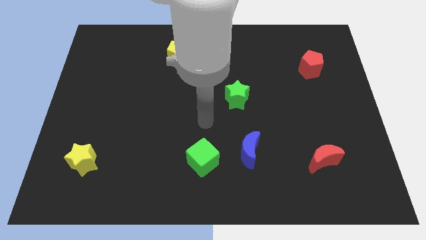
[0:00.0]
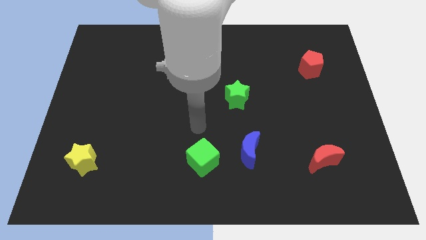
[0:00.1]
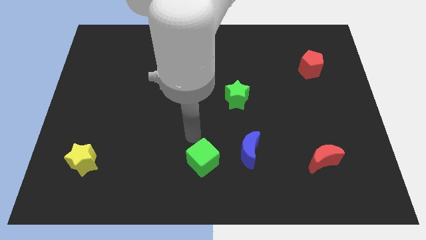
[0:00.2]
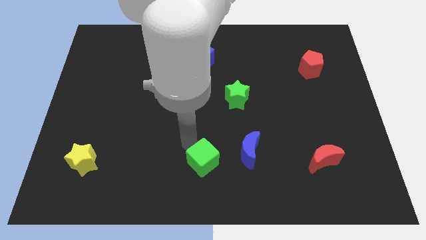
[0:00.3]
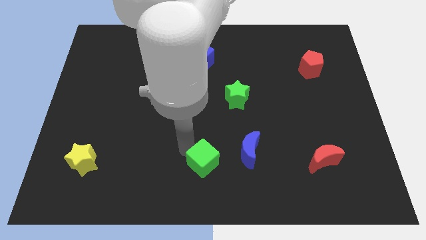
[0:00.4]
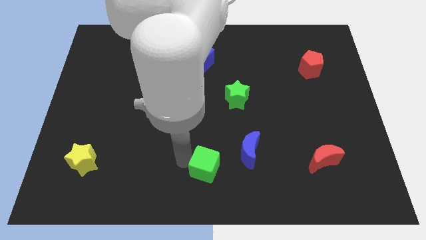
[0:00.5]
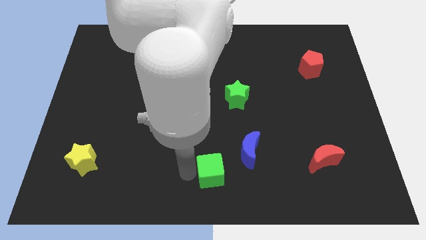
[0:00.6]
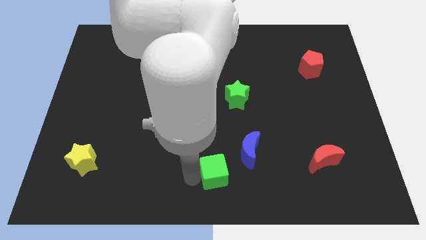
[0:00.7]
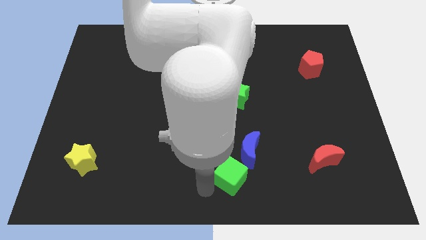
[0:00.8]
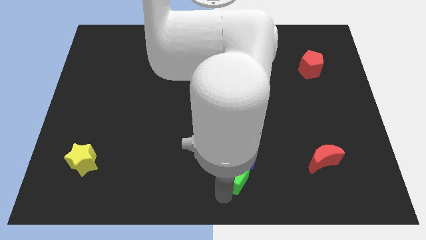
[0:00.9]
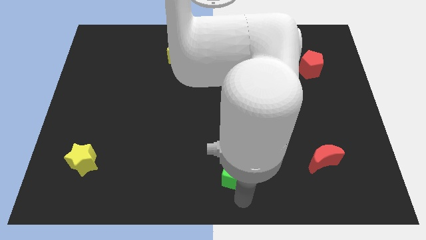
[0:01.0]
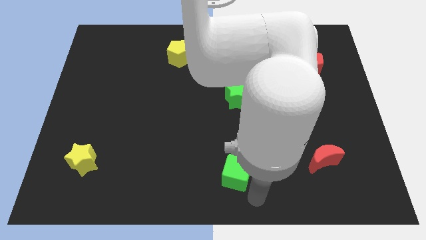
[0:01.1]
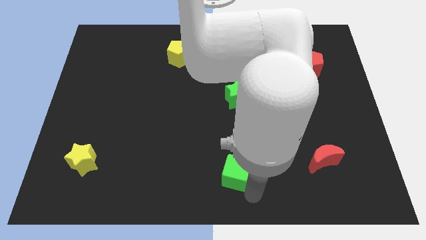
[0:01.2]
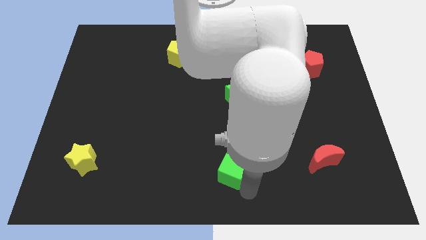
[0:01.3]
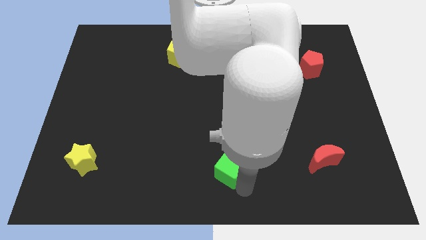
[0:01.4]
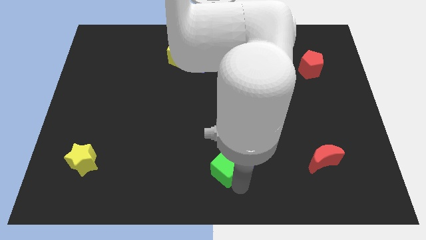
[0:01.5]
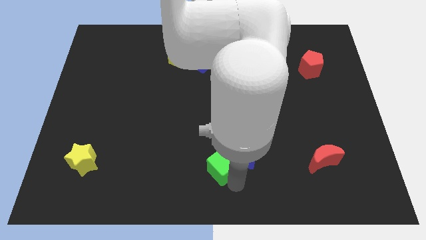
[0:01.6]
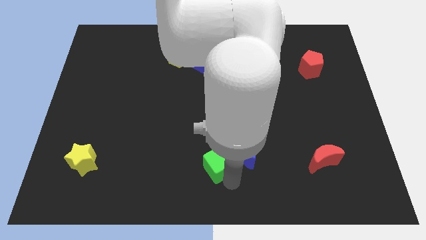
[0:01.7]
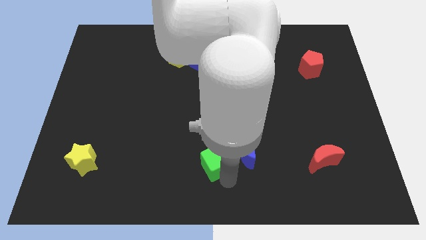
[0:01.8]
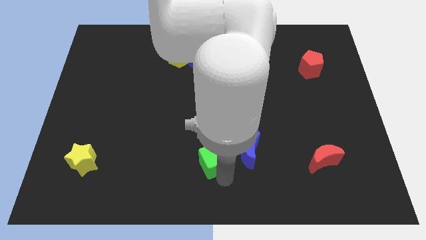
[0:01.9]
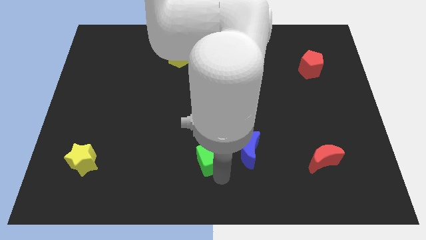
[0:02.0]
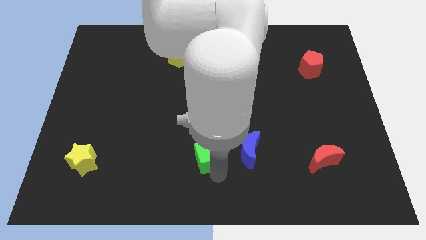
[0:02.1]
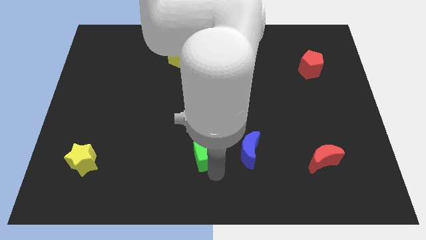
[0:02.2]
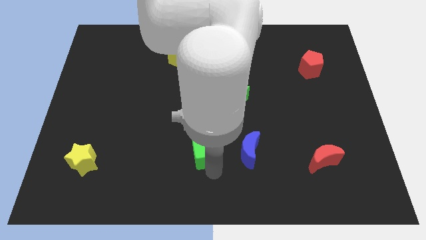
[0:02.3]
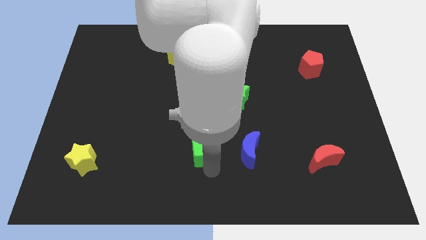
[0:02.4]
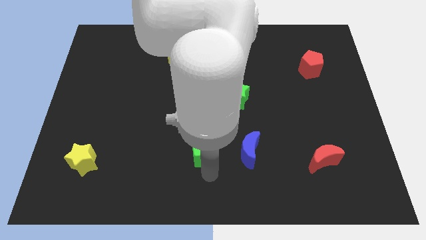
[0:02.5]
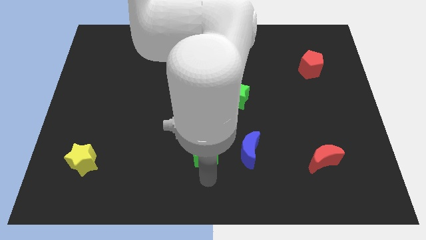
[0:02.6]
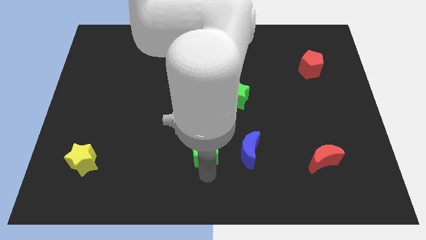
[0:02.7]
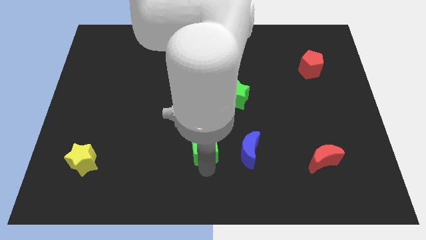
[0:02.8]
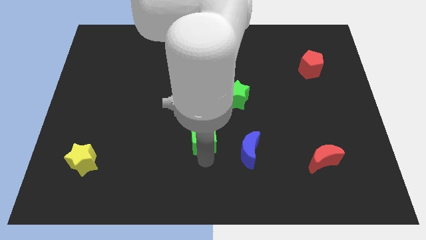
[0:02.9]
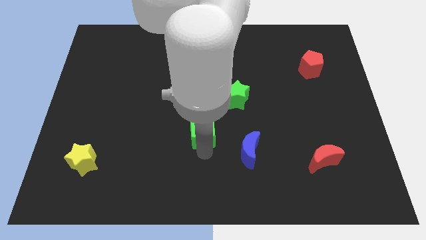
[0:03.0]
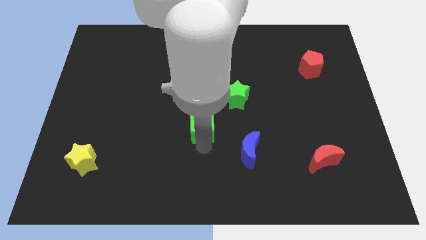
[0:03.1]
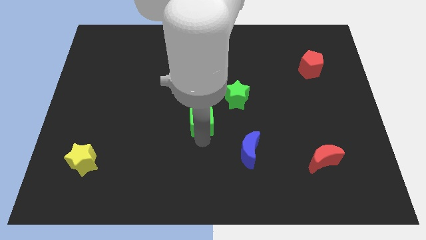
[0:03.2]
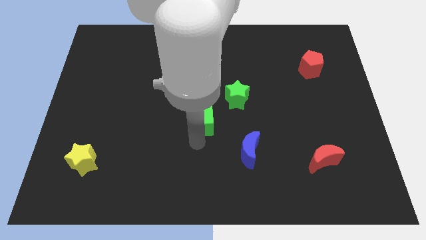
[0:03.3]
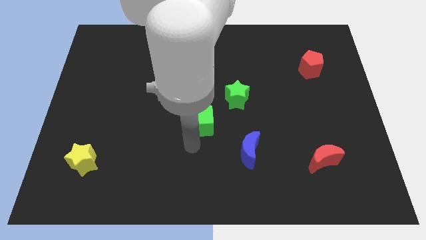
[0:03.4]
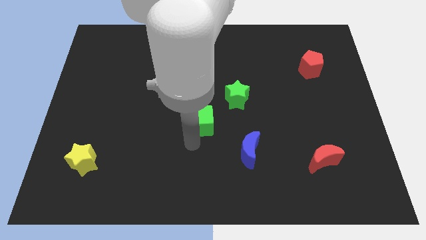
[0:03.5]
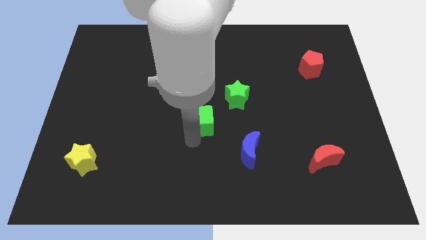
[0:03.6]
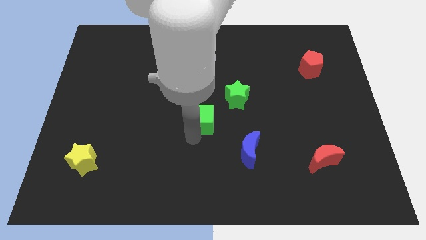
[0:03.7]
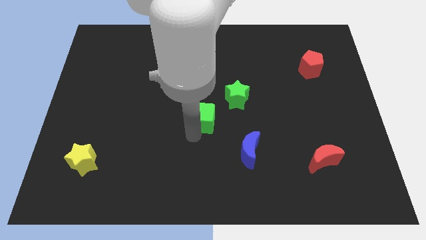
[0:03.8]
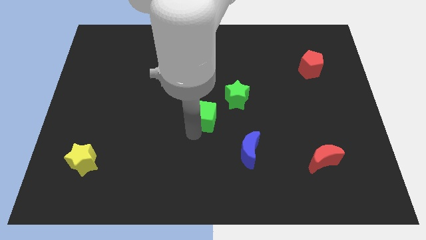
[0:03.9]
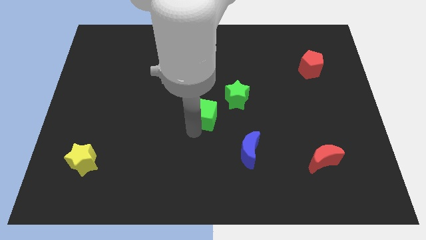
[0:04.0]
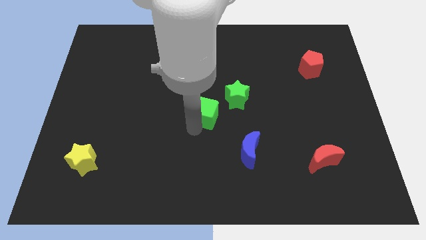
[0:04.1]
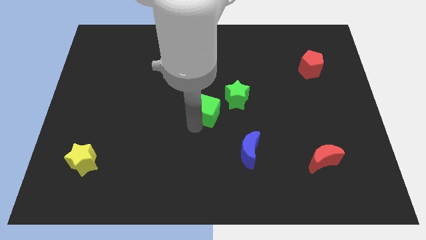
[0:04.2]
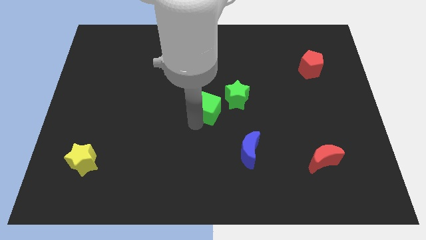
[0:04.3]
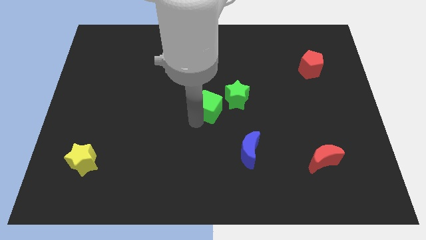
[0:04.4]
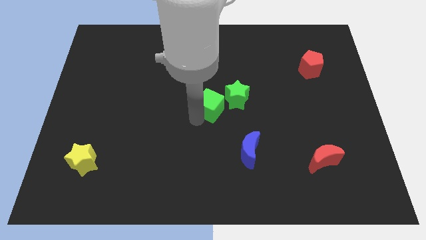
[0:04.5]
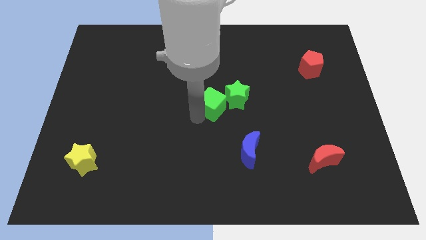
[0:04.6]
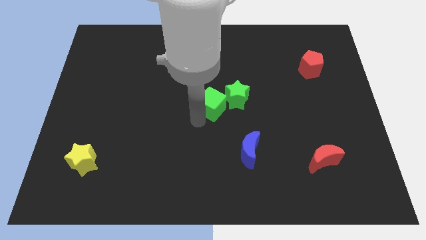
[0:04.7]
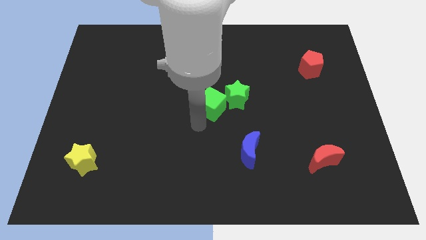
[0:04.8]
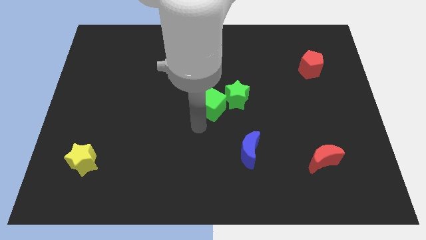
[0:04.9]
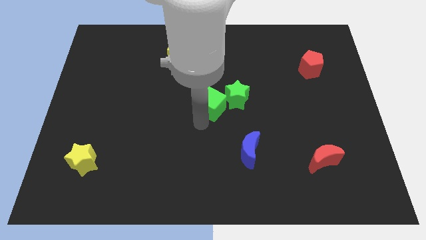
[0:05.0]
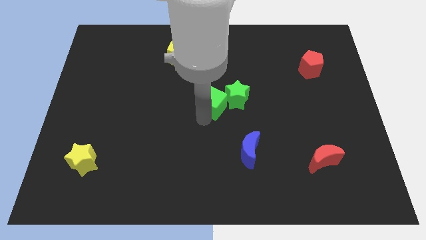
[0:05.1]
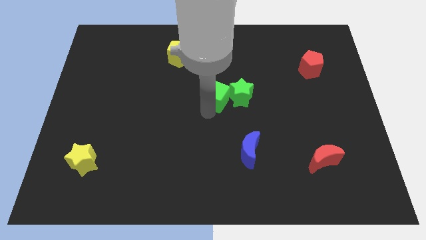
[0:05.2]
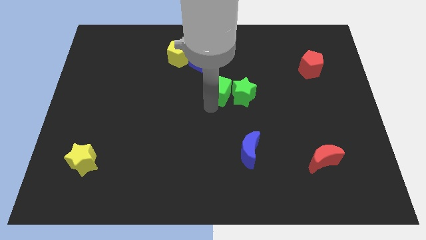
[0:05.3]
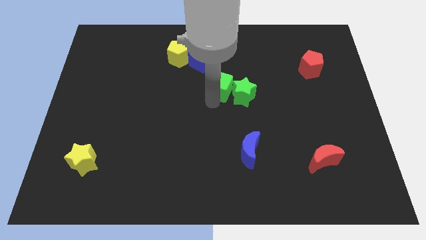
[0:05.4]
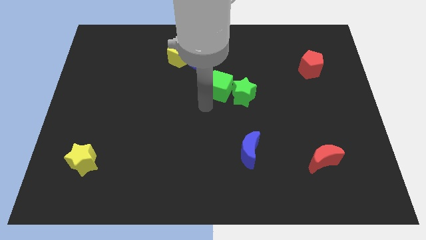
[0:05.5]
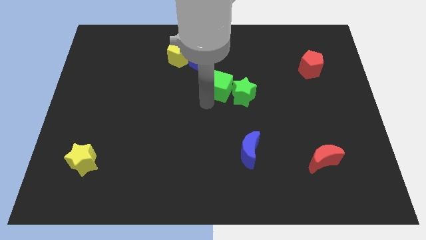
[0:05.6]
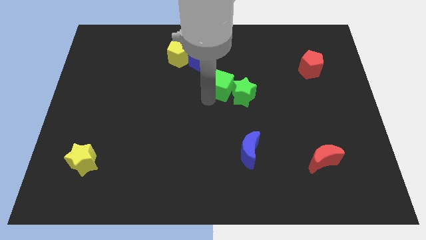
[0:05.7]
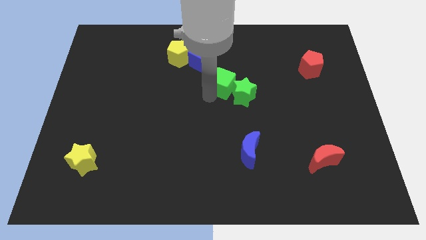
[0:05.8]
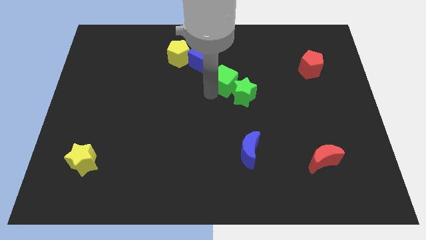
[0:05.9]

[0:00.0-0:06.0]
push the green cube to the top of the green star

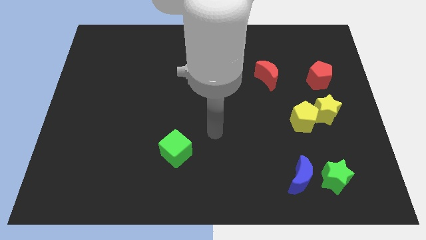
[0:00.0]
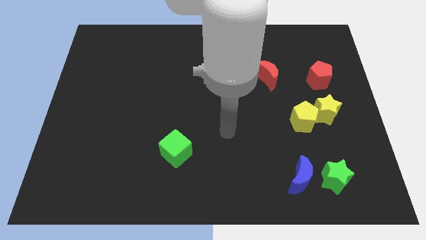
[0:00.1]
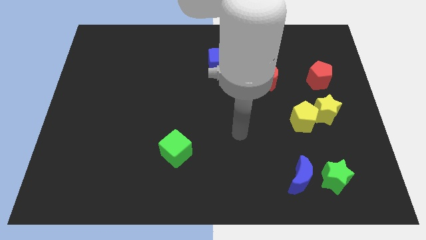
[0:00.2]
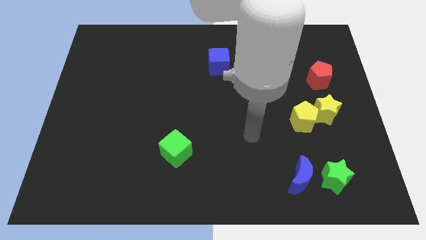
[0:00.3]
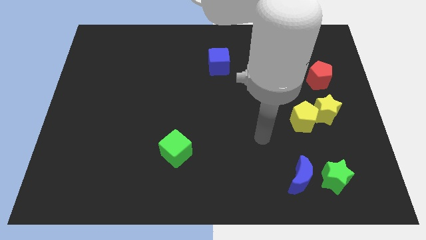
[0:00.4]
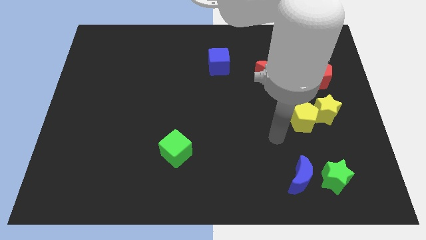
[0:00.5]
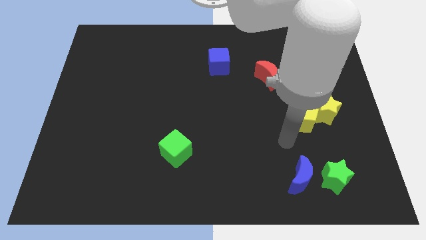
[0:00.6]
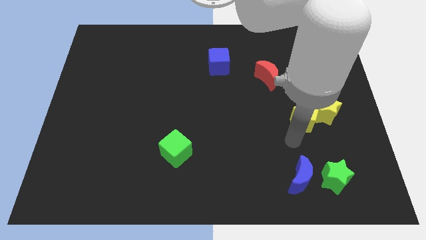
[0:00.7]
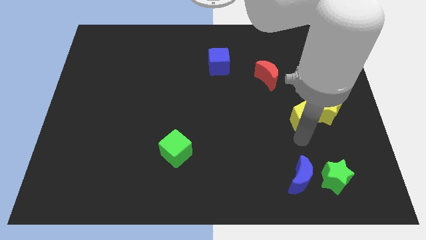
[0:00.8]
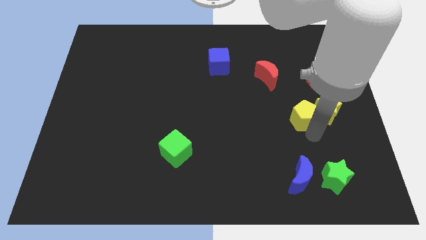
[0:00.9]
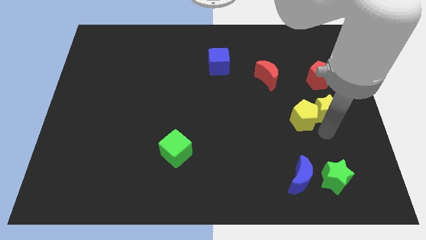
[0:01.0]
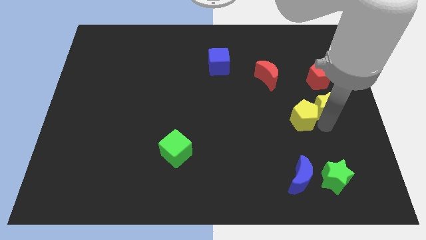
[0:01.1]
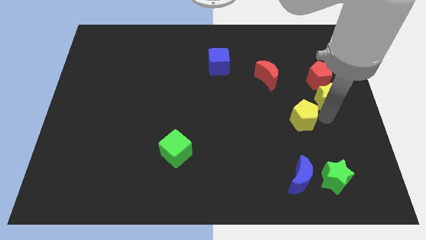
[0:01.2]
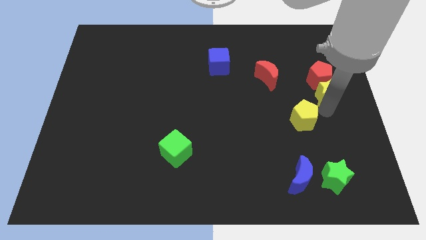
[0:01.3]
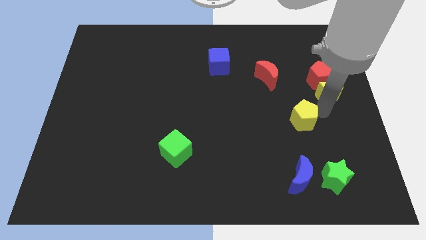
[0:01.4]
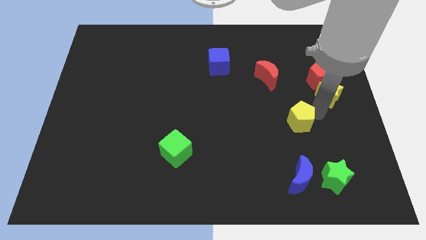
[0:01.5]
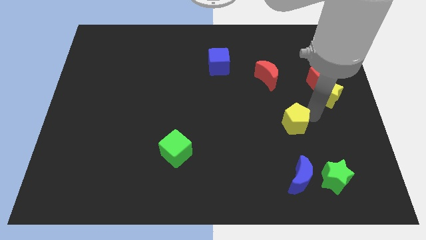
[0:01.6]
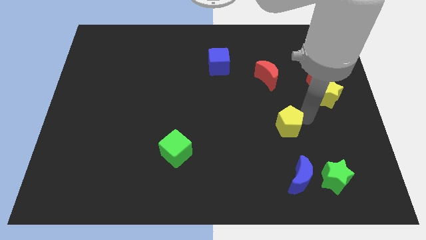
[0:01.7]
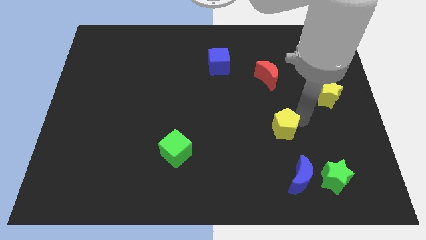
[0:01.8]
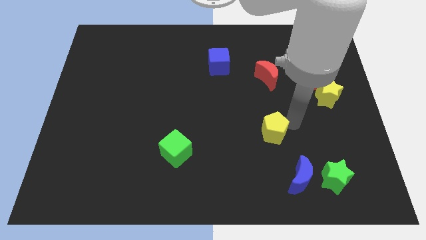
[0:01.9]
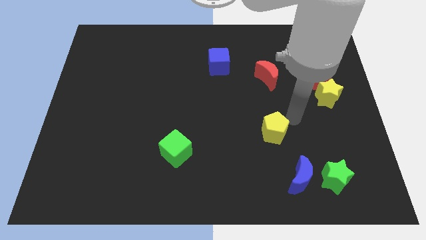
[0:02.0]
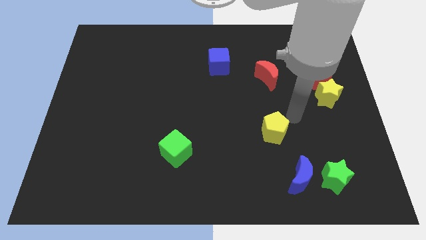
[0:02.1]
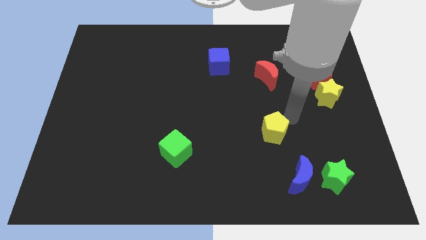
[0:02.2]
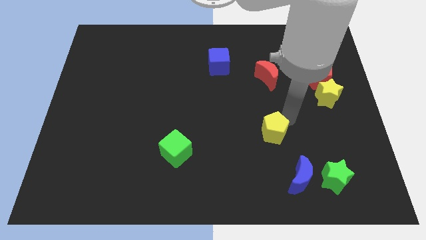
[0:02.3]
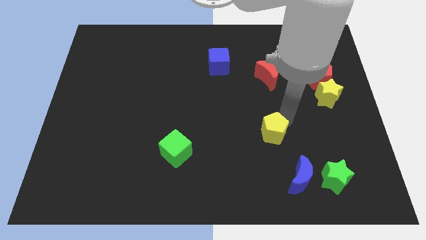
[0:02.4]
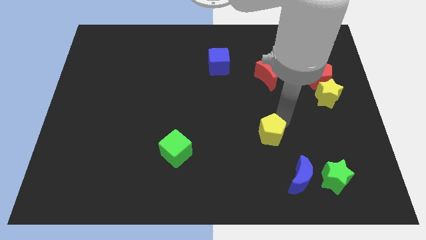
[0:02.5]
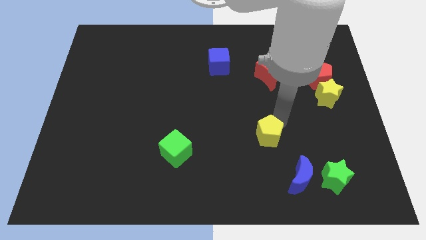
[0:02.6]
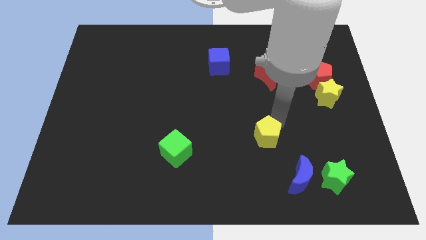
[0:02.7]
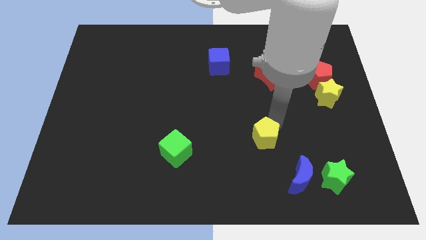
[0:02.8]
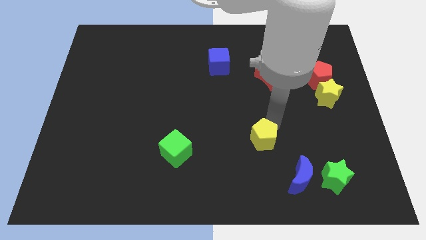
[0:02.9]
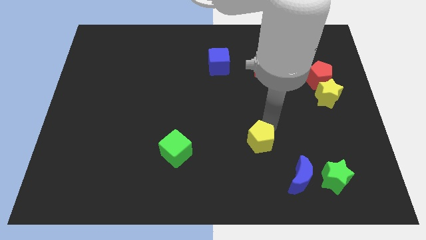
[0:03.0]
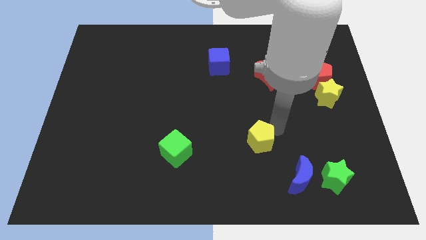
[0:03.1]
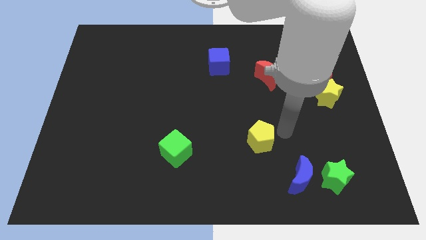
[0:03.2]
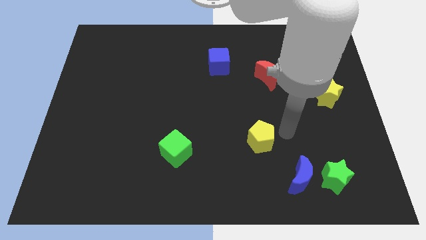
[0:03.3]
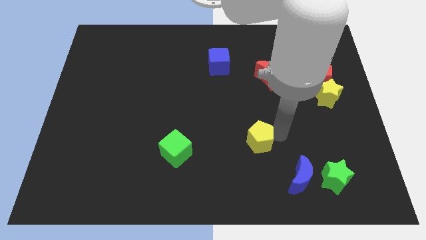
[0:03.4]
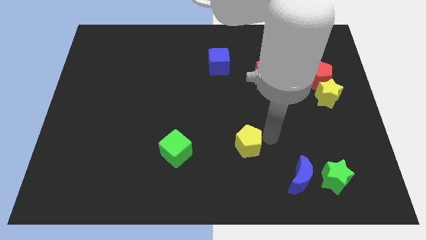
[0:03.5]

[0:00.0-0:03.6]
move the yellow pentagon to the right side of the green cube
